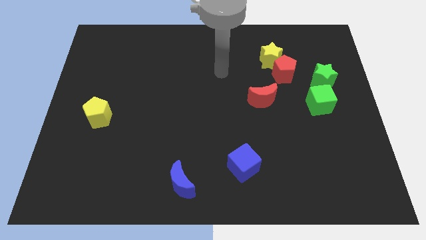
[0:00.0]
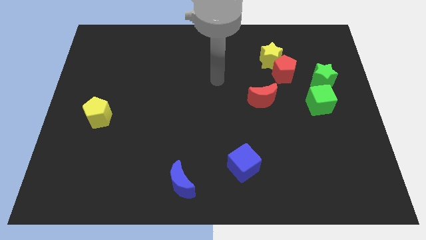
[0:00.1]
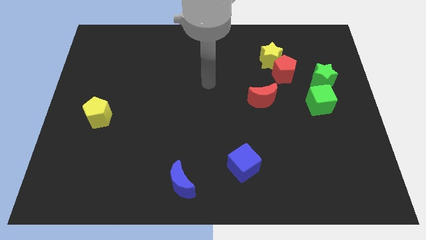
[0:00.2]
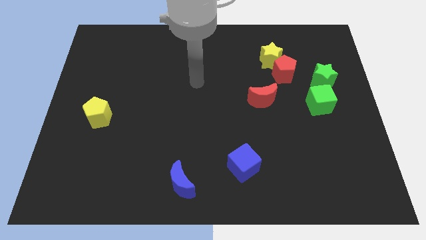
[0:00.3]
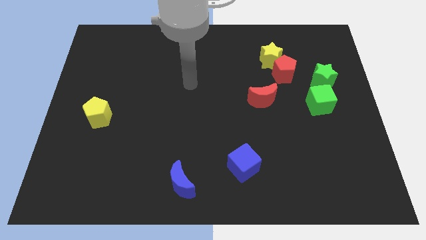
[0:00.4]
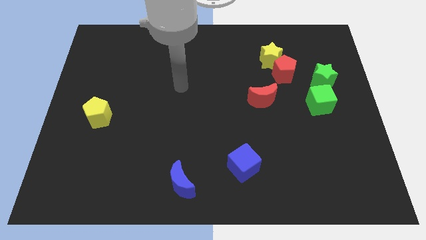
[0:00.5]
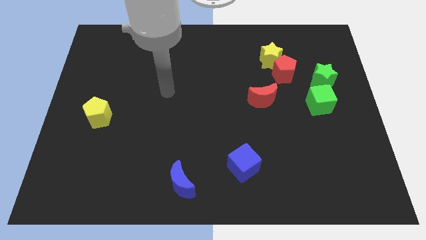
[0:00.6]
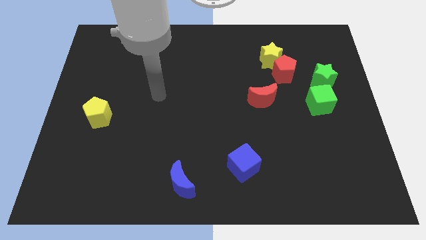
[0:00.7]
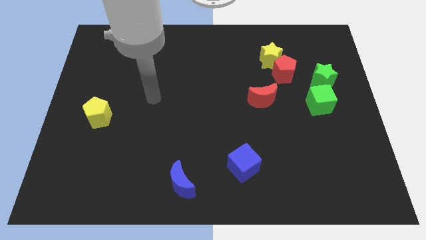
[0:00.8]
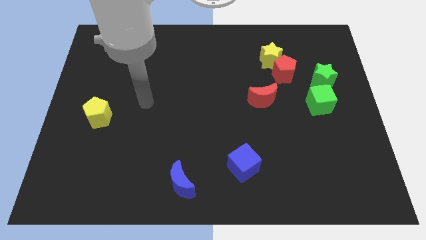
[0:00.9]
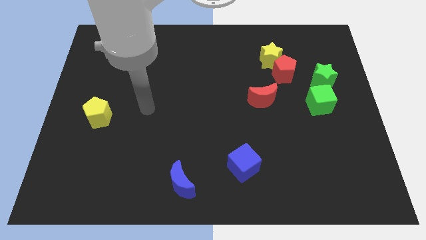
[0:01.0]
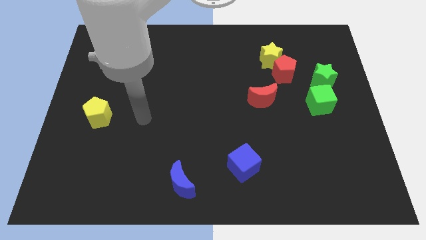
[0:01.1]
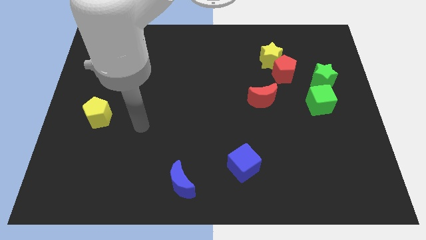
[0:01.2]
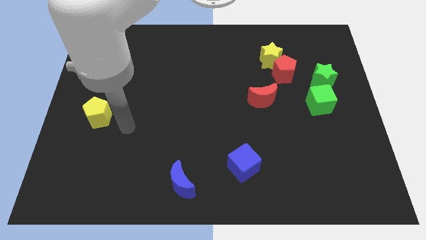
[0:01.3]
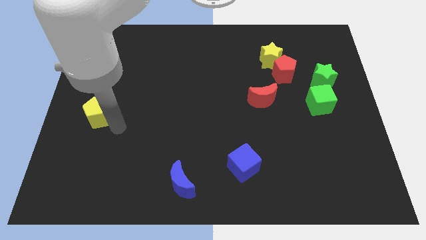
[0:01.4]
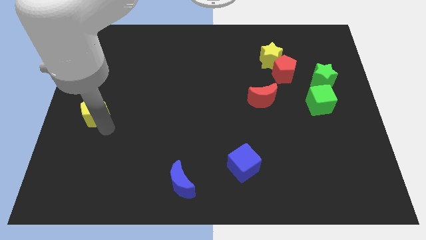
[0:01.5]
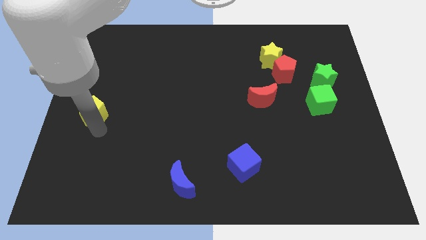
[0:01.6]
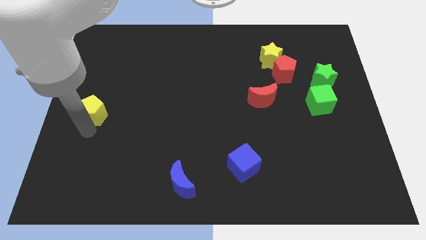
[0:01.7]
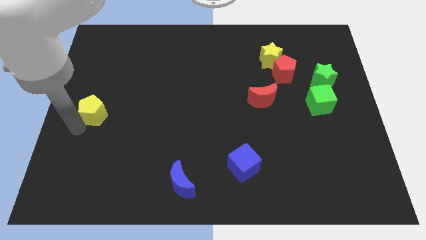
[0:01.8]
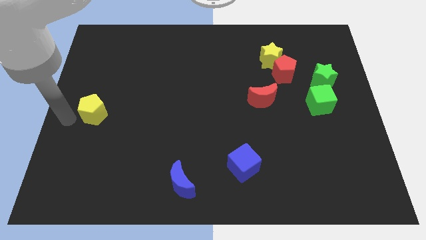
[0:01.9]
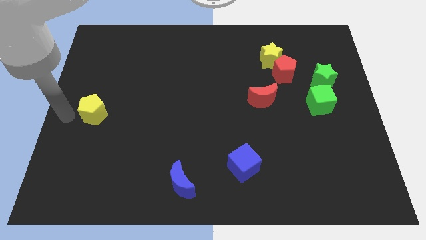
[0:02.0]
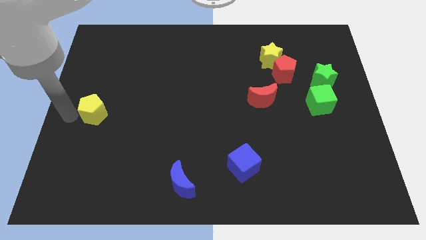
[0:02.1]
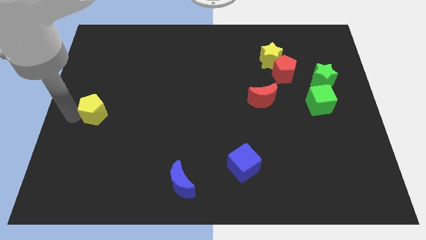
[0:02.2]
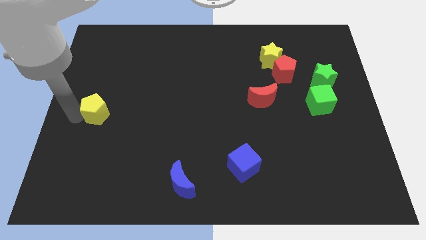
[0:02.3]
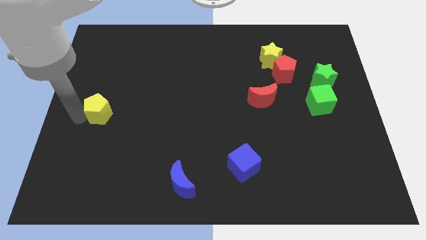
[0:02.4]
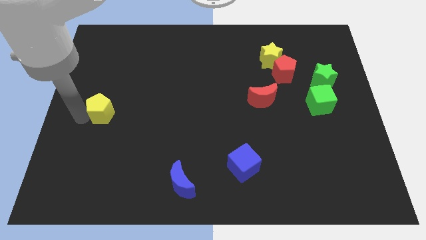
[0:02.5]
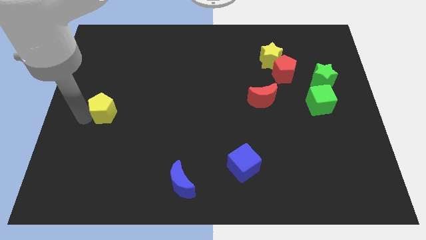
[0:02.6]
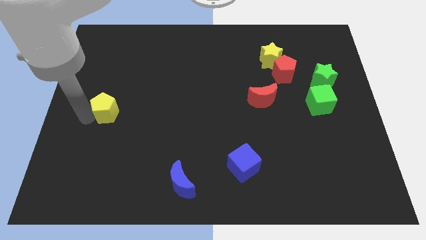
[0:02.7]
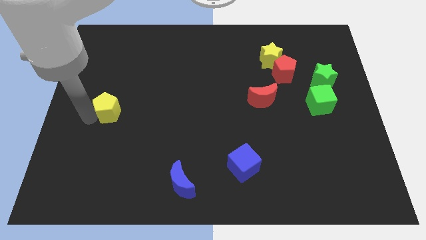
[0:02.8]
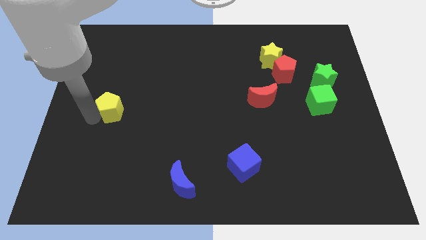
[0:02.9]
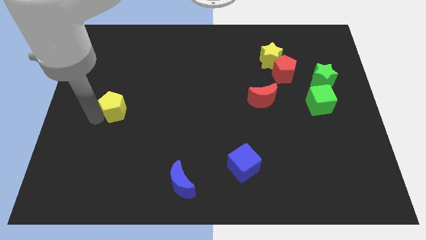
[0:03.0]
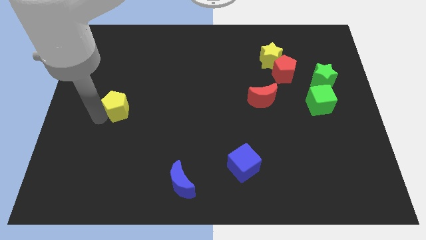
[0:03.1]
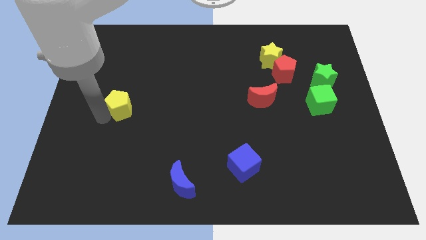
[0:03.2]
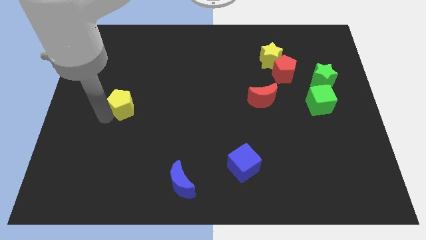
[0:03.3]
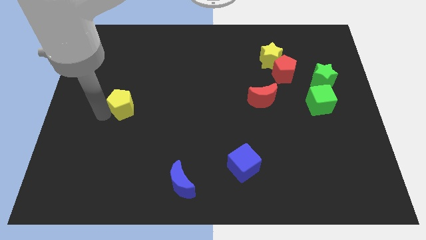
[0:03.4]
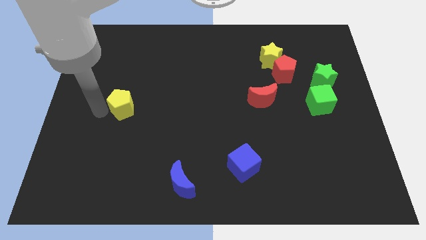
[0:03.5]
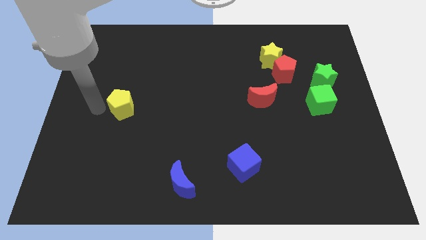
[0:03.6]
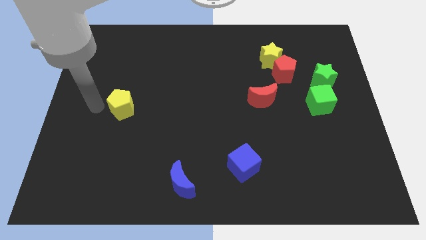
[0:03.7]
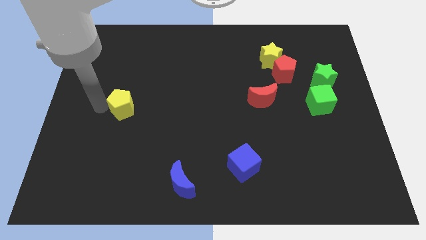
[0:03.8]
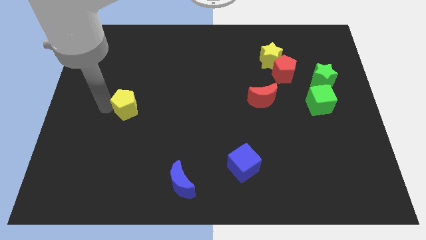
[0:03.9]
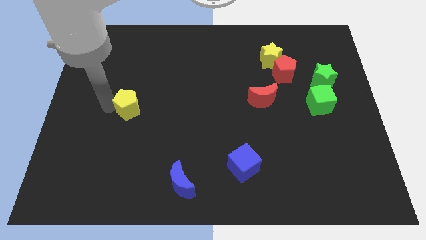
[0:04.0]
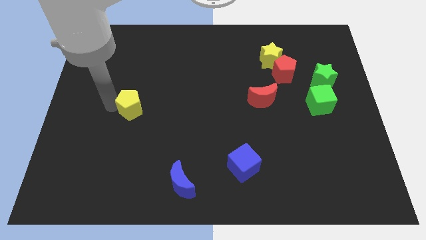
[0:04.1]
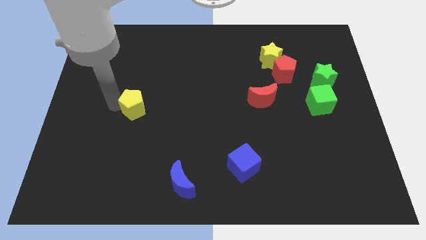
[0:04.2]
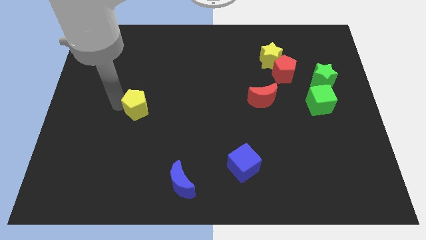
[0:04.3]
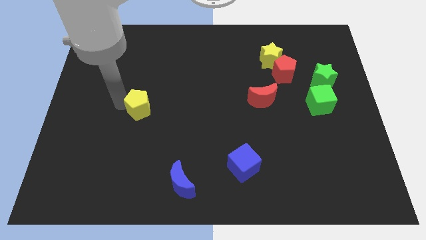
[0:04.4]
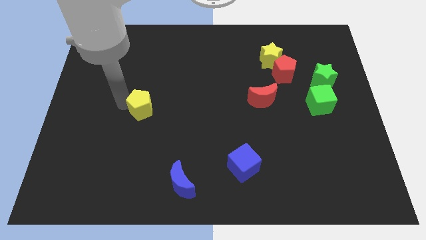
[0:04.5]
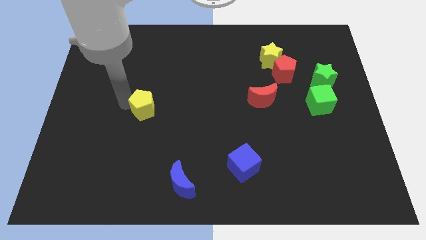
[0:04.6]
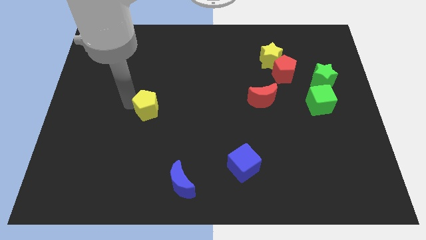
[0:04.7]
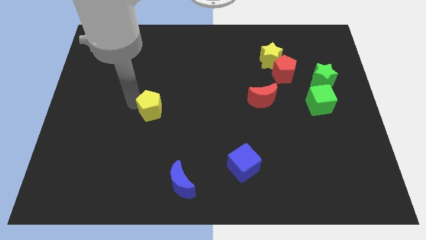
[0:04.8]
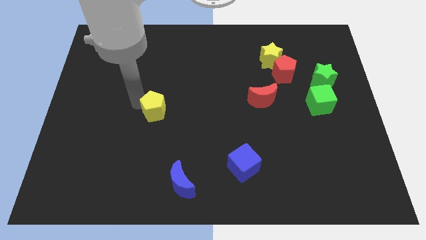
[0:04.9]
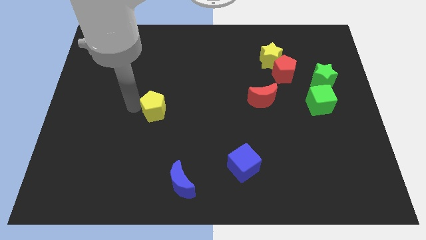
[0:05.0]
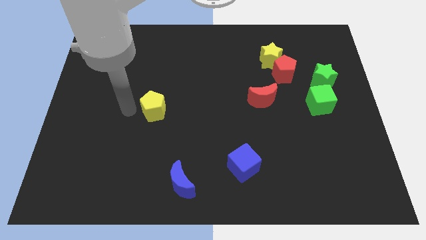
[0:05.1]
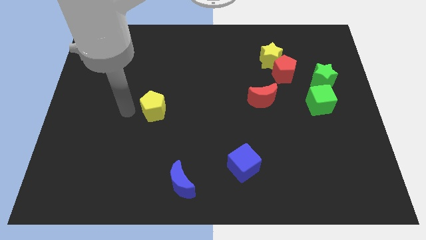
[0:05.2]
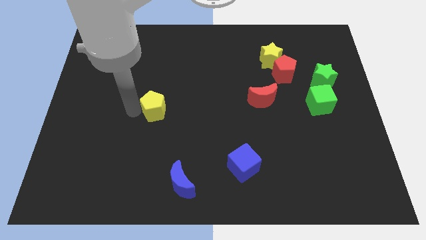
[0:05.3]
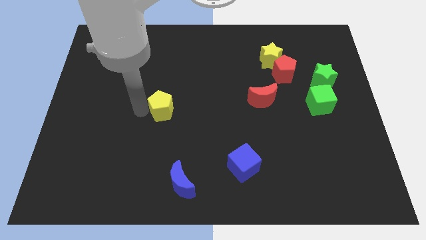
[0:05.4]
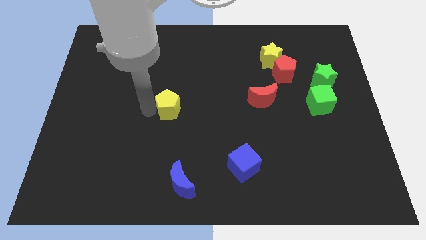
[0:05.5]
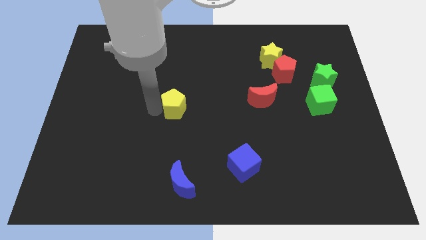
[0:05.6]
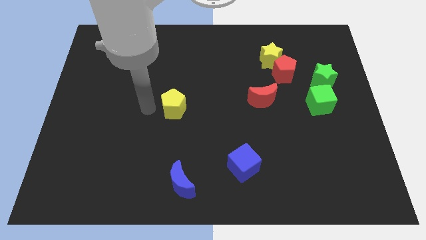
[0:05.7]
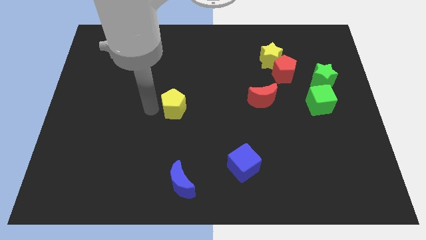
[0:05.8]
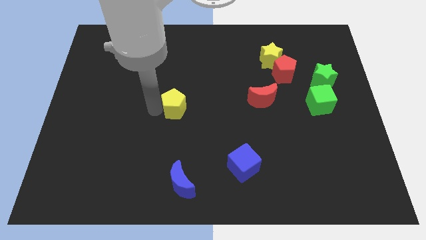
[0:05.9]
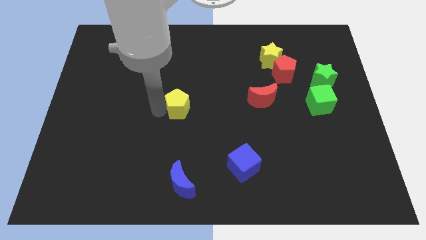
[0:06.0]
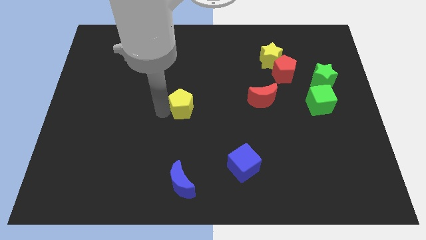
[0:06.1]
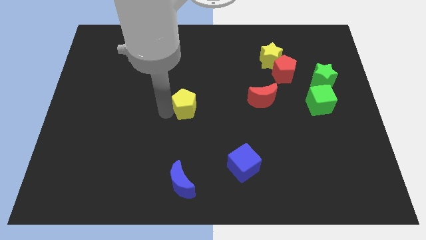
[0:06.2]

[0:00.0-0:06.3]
push the yellow pentagon to the right

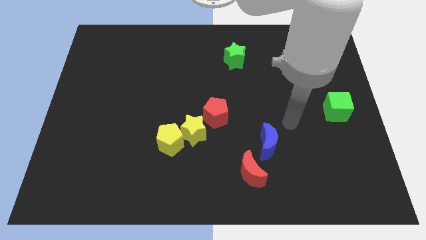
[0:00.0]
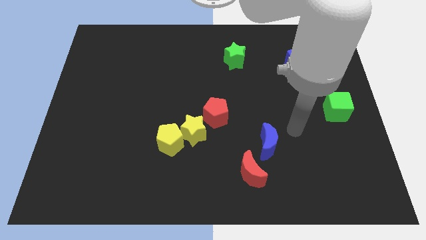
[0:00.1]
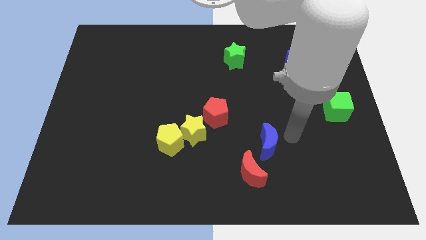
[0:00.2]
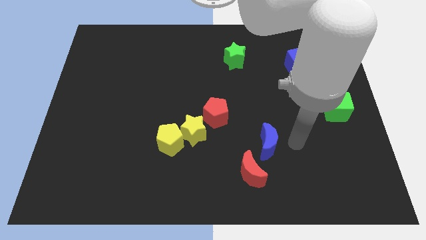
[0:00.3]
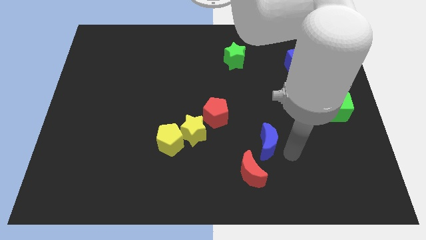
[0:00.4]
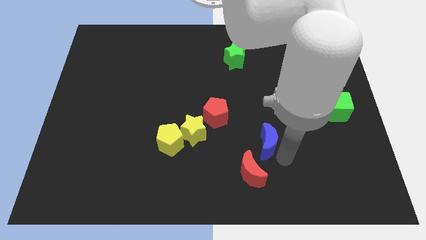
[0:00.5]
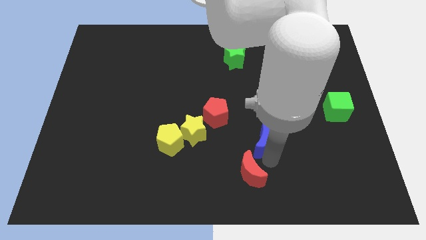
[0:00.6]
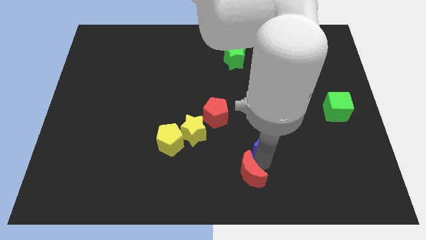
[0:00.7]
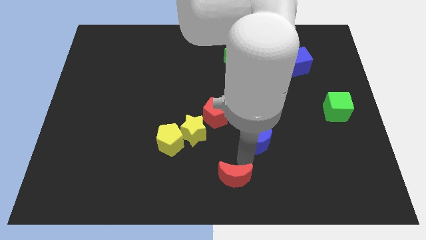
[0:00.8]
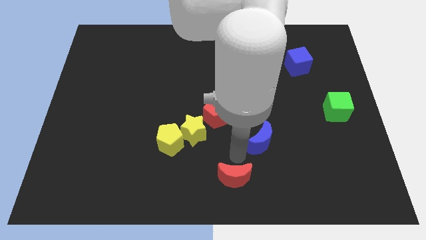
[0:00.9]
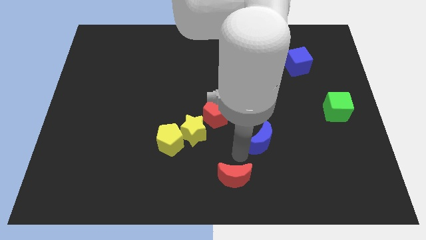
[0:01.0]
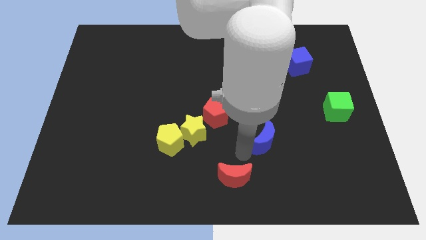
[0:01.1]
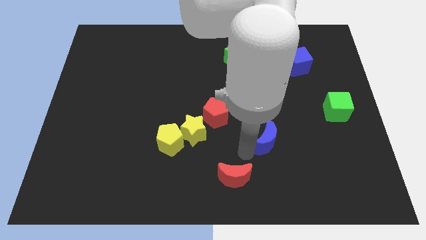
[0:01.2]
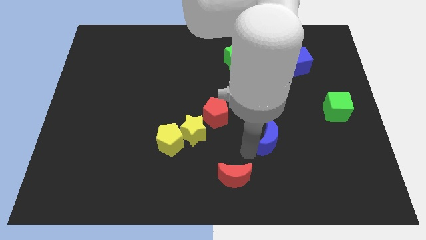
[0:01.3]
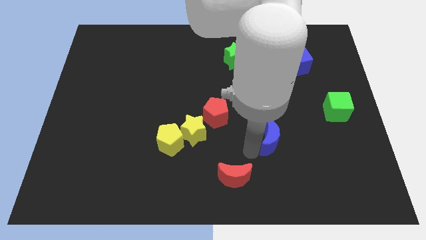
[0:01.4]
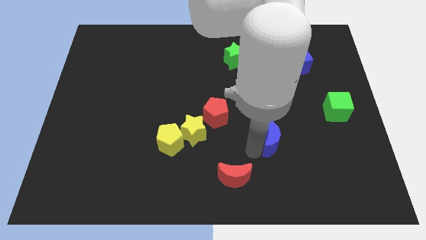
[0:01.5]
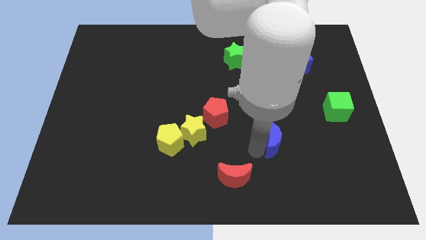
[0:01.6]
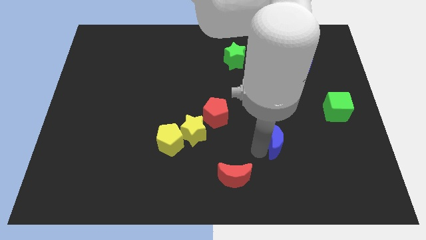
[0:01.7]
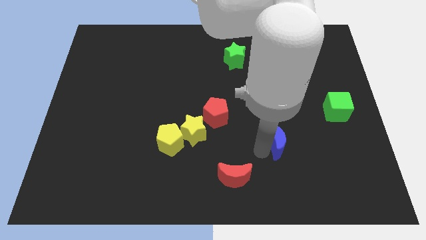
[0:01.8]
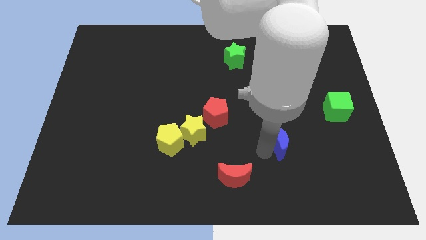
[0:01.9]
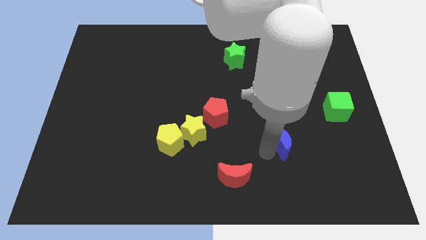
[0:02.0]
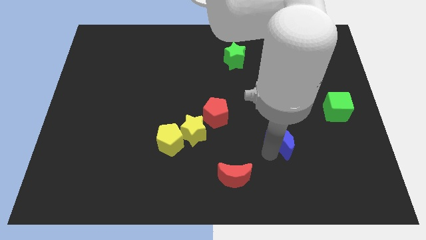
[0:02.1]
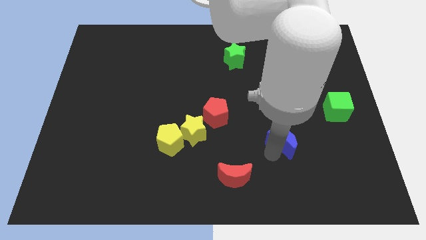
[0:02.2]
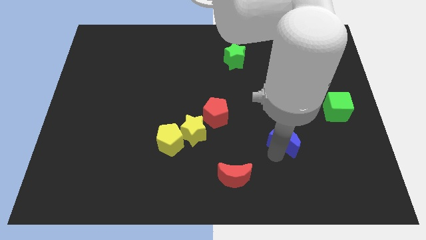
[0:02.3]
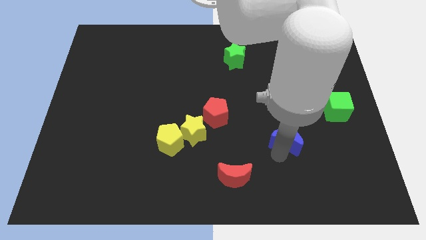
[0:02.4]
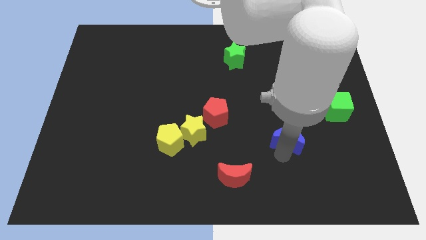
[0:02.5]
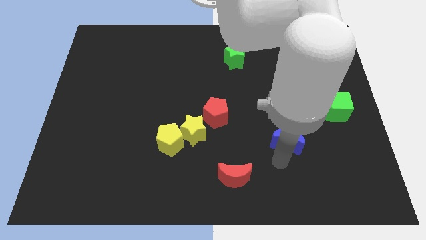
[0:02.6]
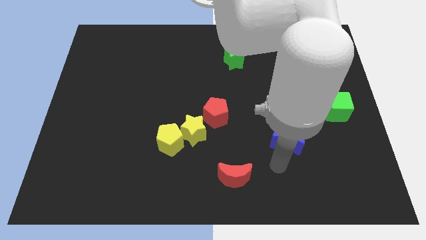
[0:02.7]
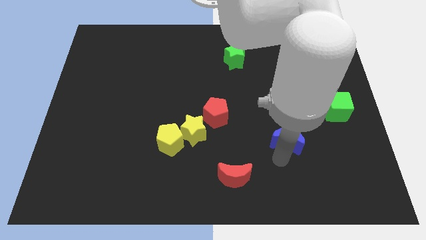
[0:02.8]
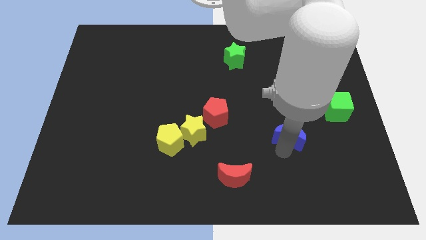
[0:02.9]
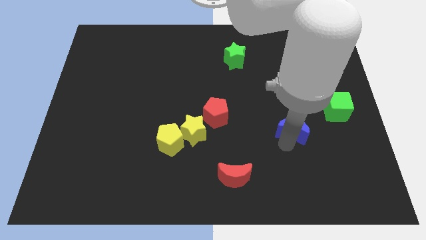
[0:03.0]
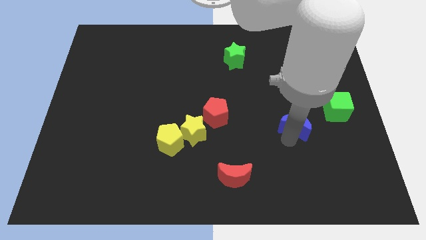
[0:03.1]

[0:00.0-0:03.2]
slide the blue moon upwards and right diagonally somewhat
